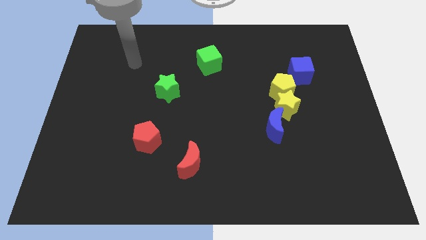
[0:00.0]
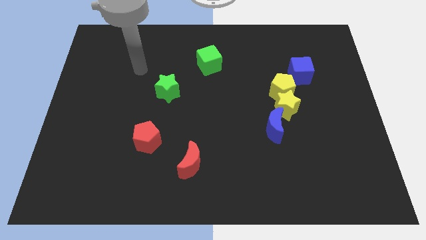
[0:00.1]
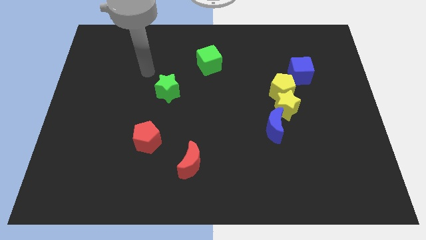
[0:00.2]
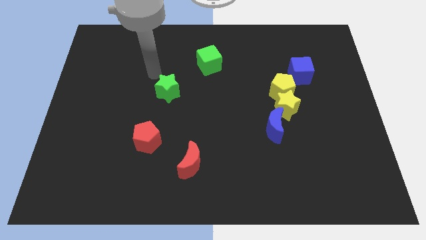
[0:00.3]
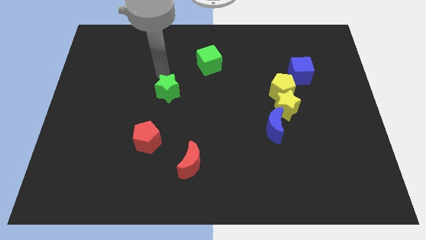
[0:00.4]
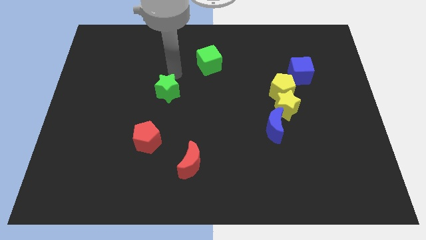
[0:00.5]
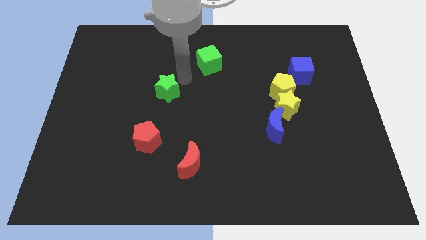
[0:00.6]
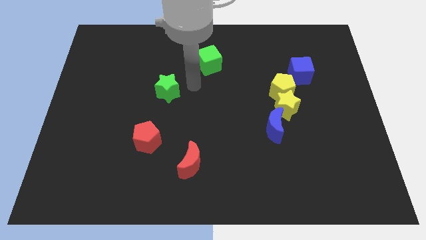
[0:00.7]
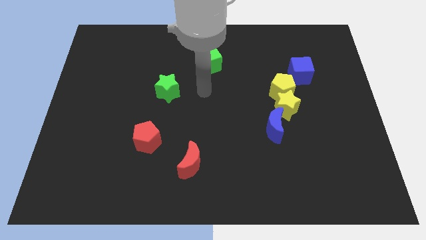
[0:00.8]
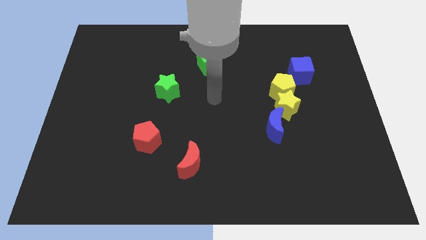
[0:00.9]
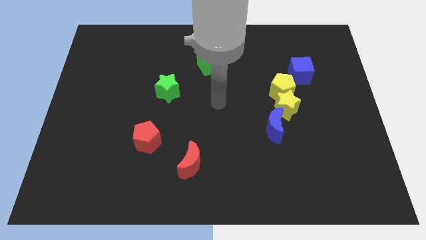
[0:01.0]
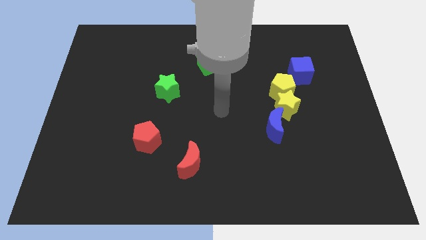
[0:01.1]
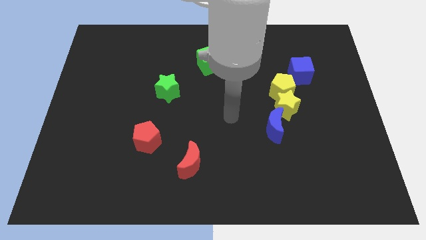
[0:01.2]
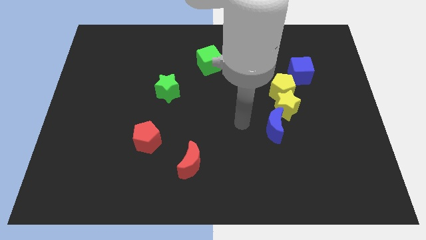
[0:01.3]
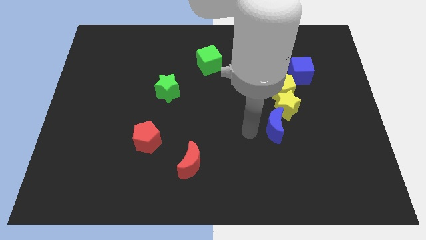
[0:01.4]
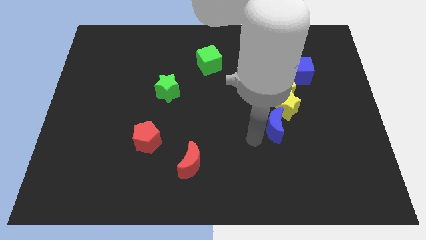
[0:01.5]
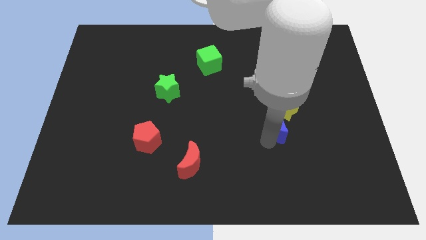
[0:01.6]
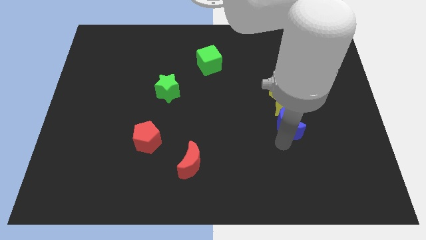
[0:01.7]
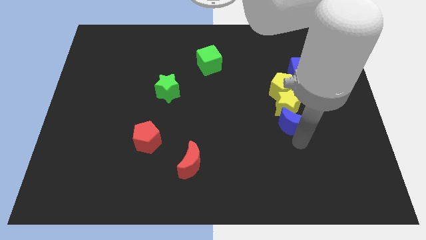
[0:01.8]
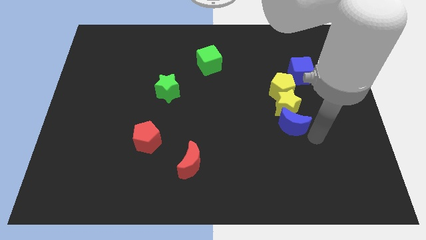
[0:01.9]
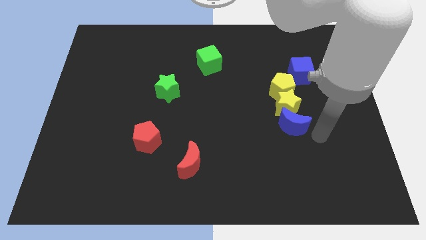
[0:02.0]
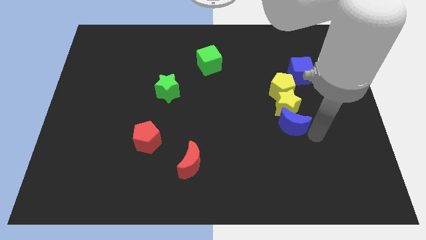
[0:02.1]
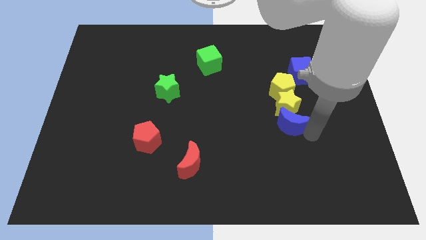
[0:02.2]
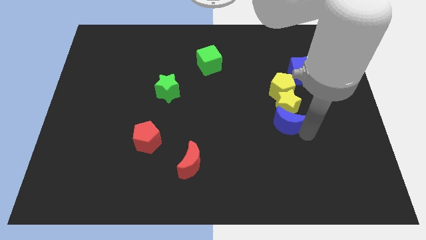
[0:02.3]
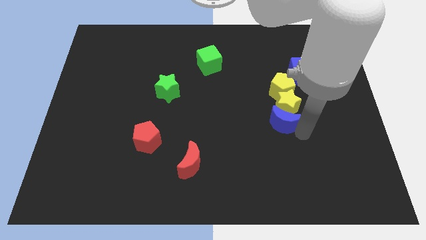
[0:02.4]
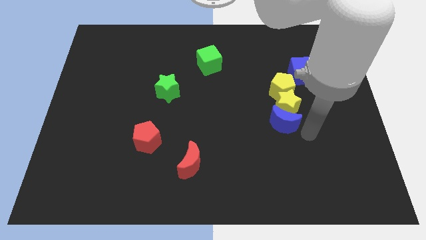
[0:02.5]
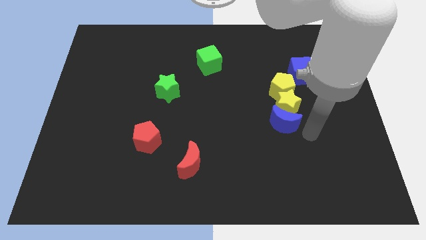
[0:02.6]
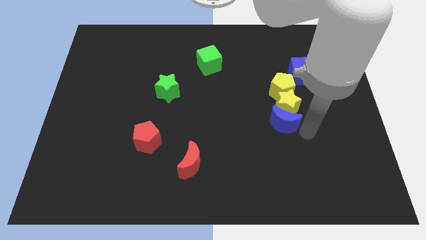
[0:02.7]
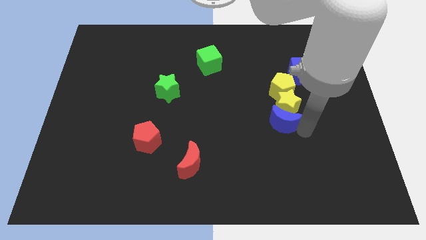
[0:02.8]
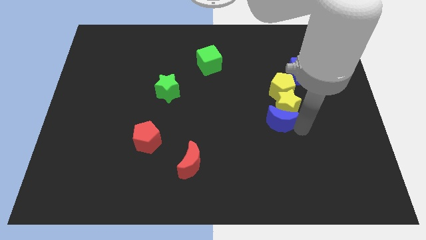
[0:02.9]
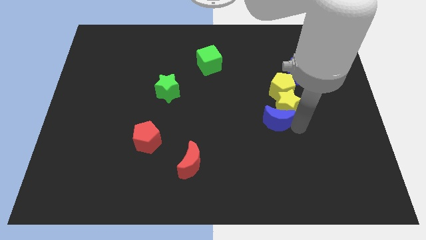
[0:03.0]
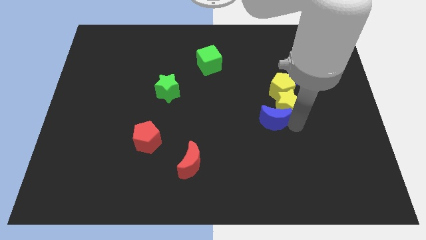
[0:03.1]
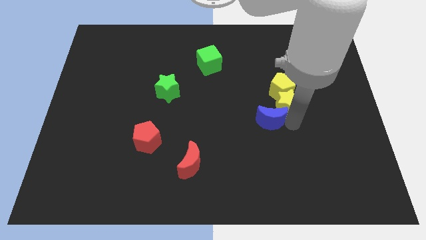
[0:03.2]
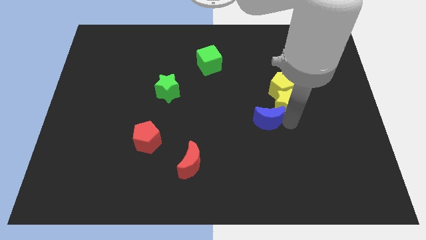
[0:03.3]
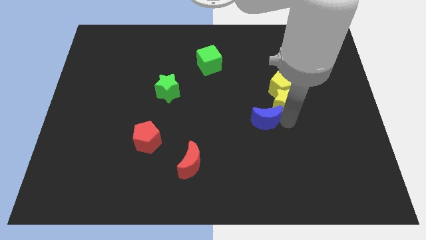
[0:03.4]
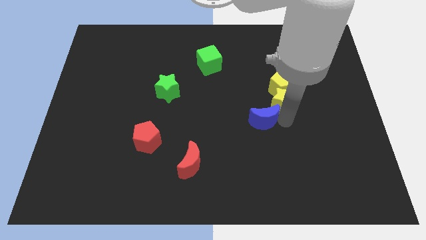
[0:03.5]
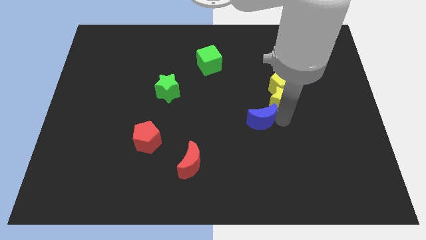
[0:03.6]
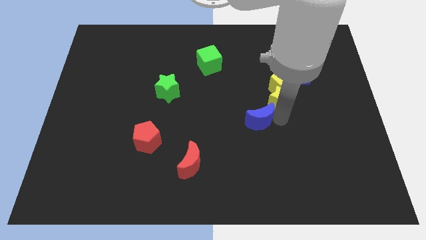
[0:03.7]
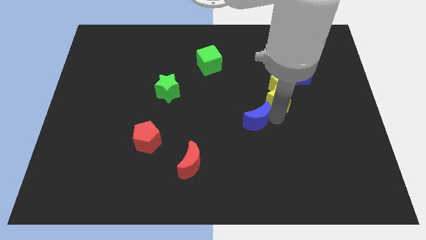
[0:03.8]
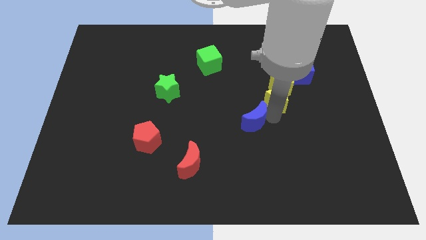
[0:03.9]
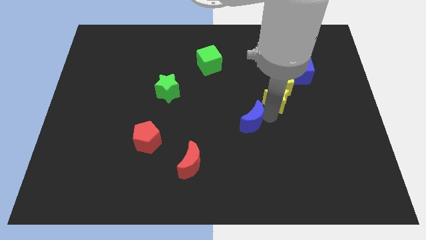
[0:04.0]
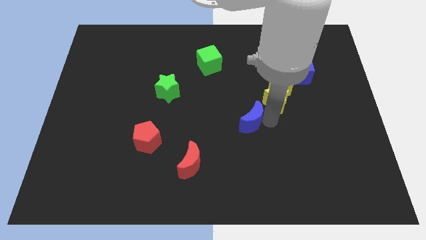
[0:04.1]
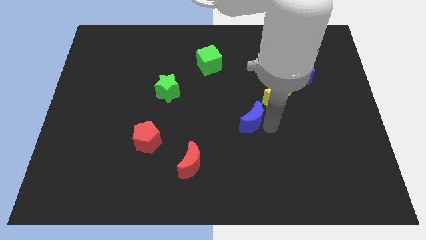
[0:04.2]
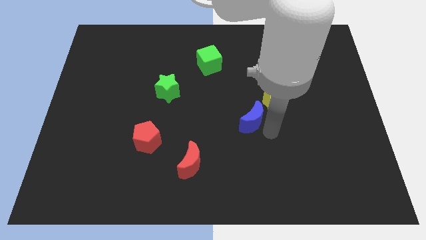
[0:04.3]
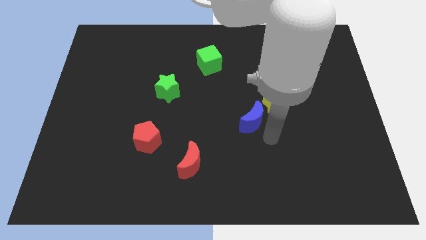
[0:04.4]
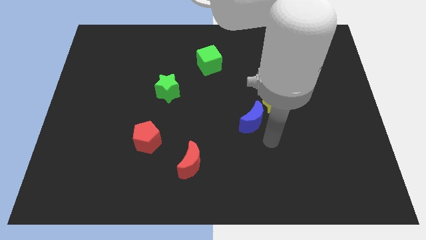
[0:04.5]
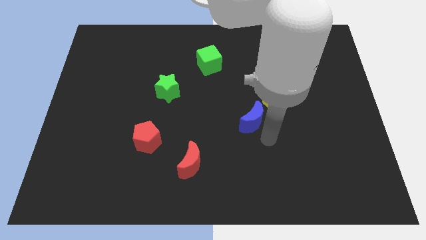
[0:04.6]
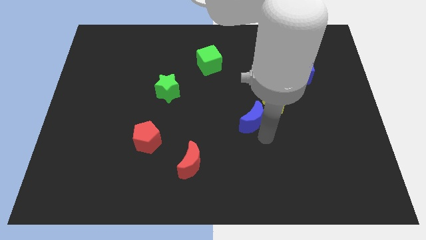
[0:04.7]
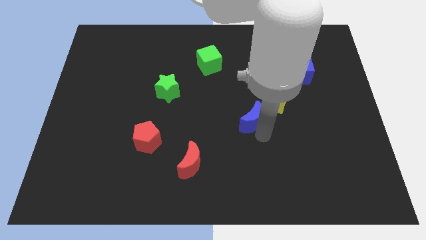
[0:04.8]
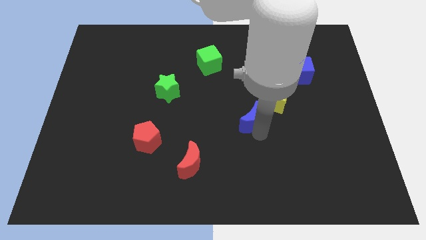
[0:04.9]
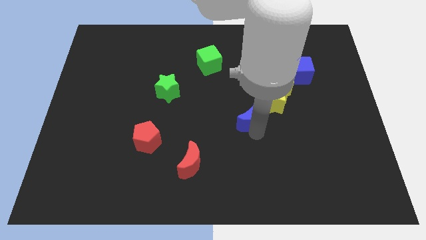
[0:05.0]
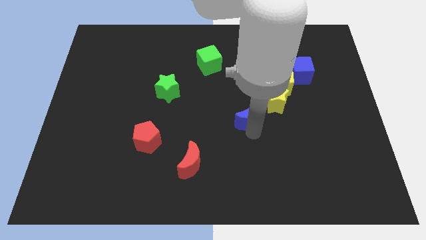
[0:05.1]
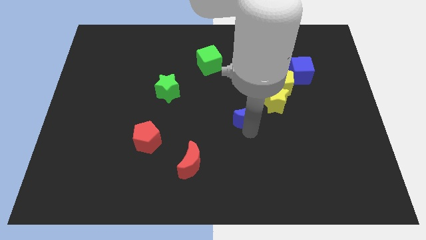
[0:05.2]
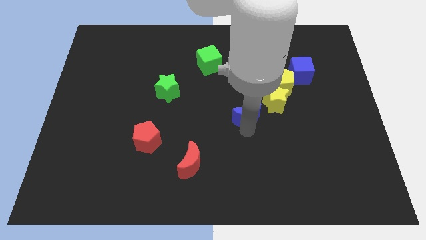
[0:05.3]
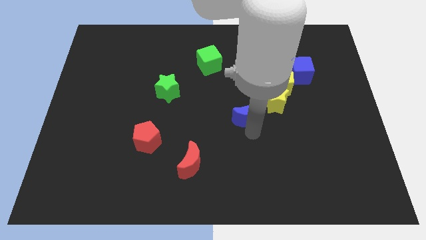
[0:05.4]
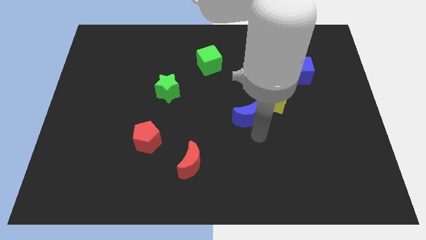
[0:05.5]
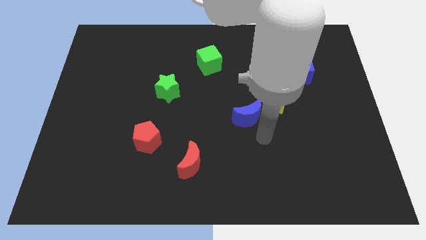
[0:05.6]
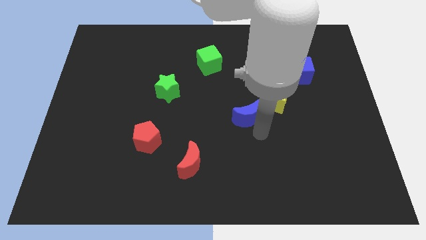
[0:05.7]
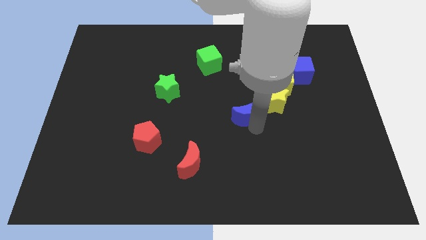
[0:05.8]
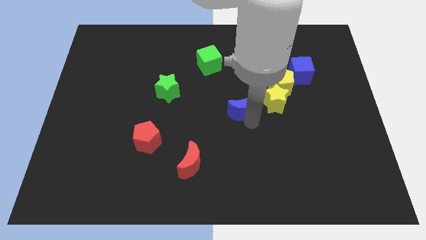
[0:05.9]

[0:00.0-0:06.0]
slide the blue moon diagonally upwards and left a little

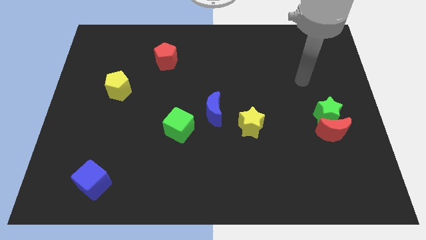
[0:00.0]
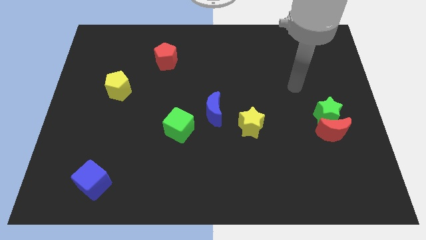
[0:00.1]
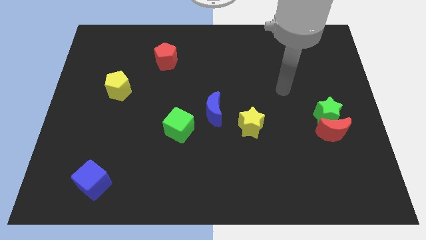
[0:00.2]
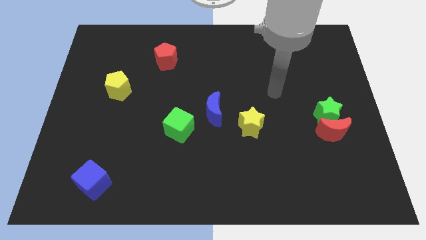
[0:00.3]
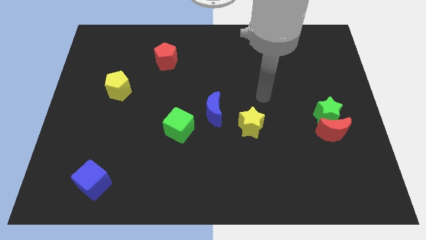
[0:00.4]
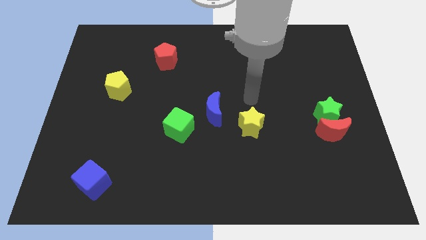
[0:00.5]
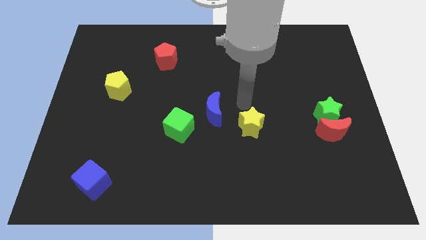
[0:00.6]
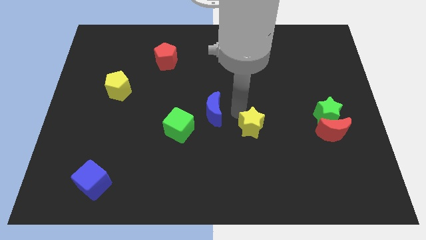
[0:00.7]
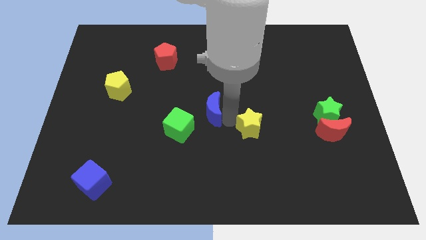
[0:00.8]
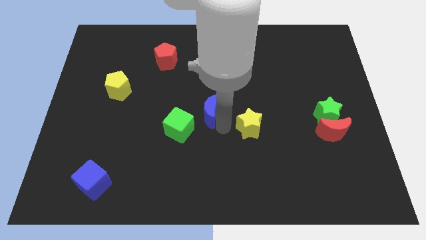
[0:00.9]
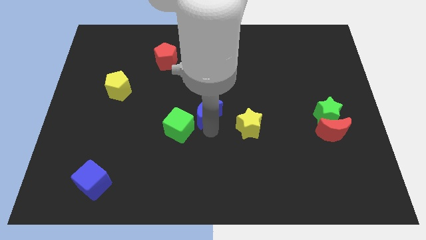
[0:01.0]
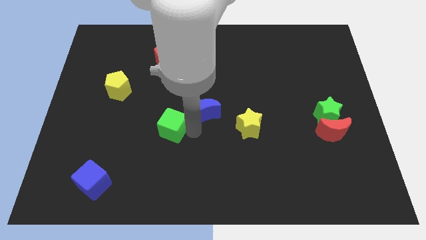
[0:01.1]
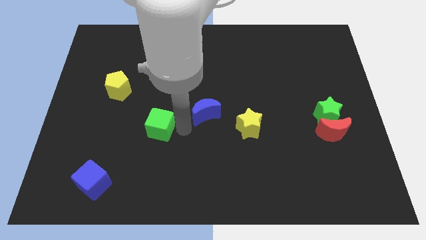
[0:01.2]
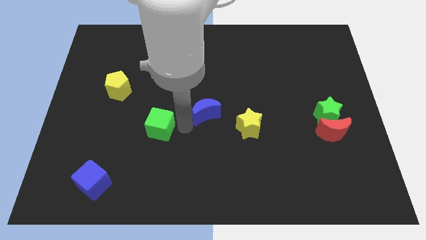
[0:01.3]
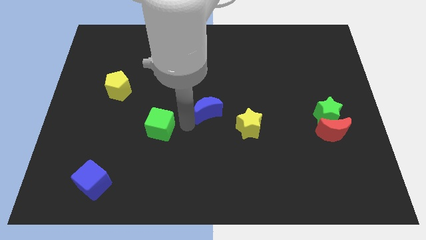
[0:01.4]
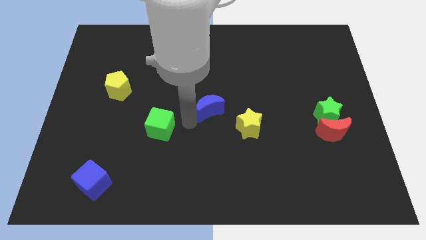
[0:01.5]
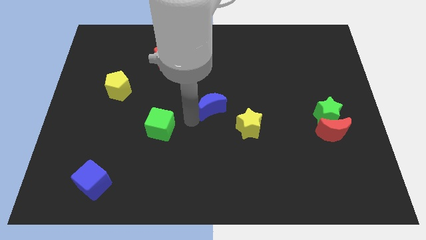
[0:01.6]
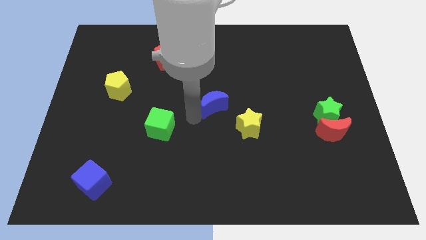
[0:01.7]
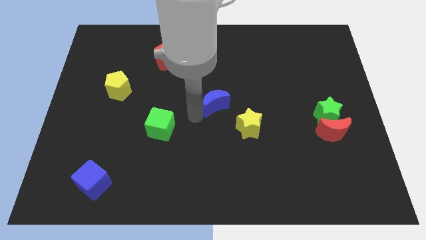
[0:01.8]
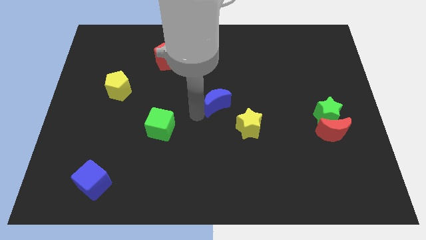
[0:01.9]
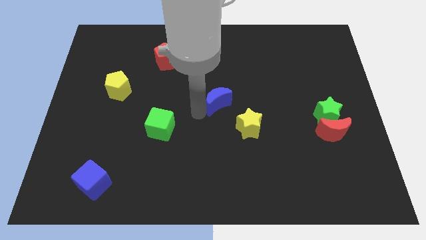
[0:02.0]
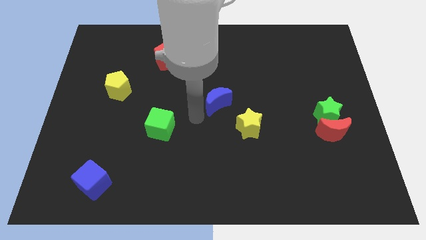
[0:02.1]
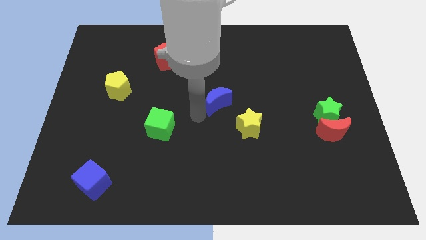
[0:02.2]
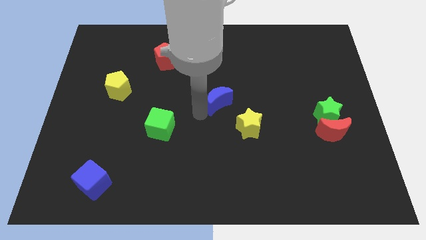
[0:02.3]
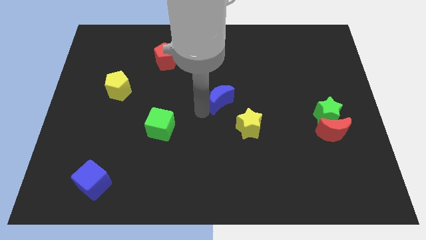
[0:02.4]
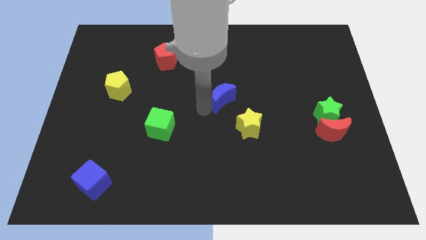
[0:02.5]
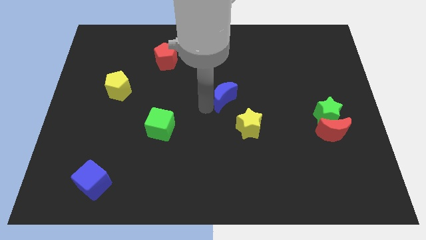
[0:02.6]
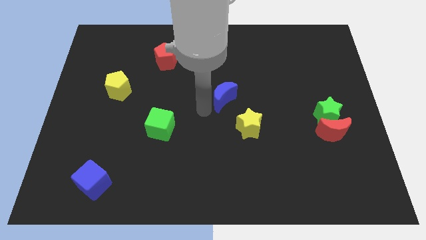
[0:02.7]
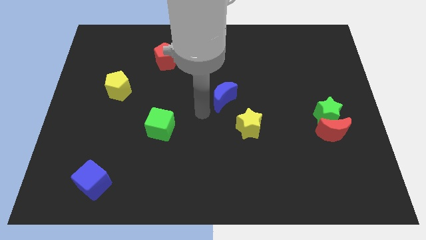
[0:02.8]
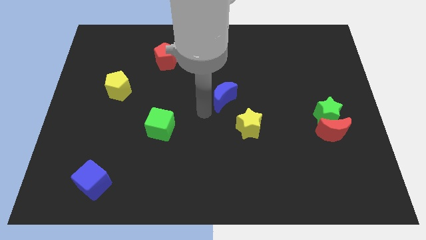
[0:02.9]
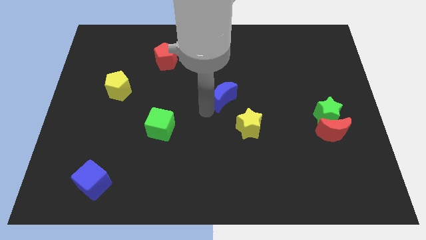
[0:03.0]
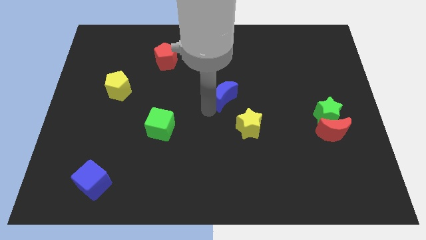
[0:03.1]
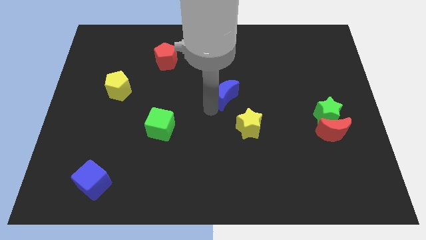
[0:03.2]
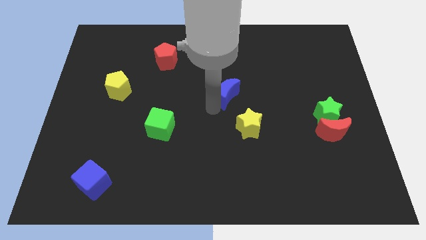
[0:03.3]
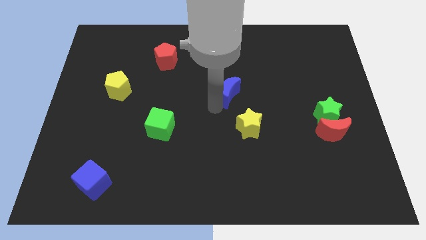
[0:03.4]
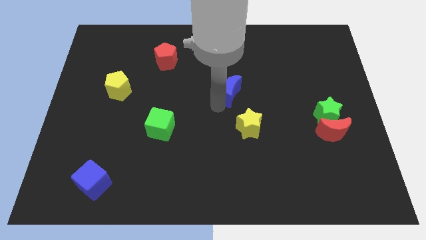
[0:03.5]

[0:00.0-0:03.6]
slide the blue moon a bit diagonally upwards and right
